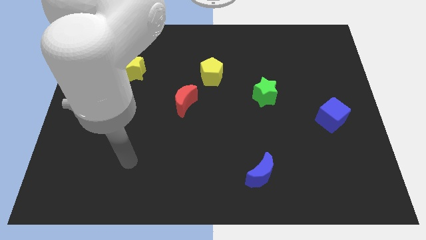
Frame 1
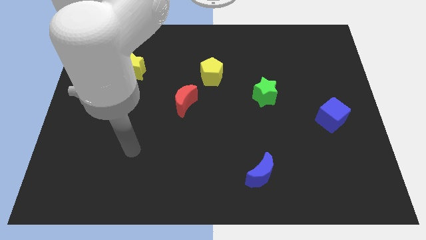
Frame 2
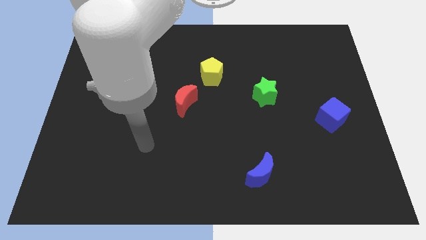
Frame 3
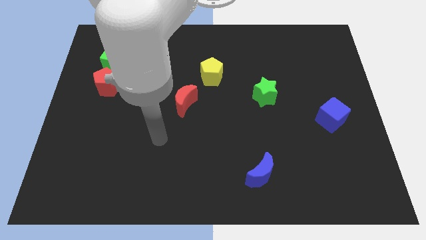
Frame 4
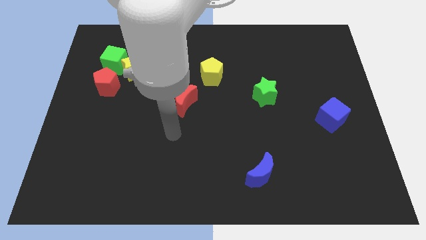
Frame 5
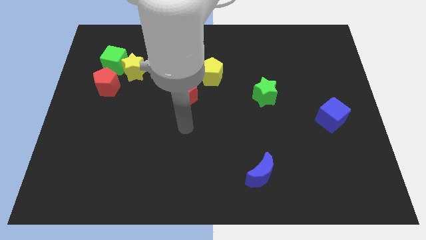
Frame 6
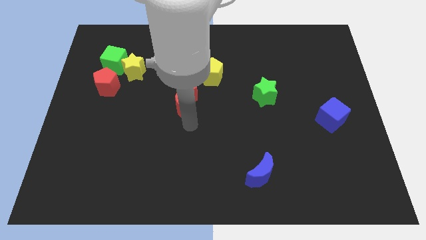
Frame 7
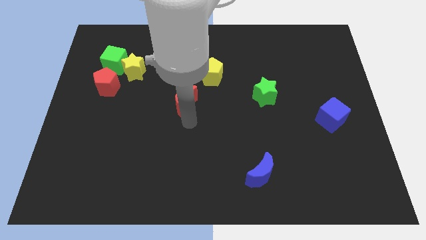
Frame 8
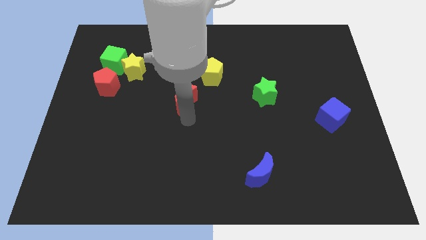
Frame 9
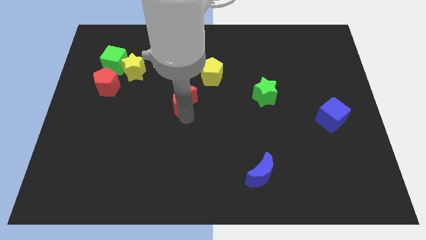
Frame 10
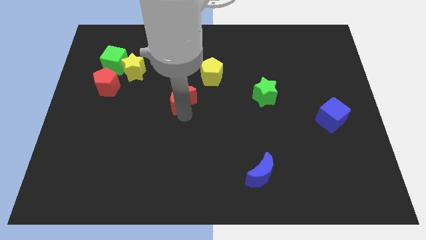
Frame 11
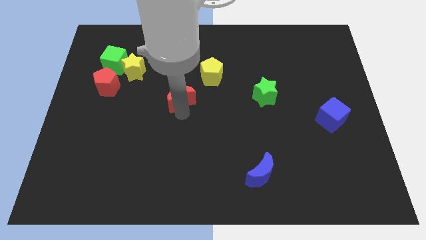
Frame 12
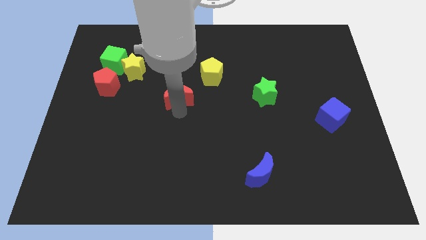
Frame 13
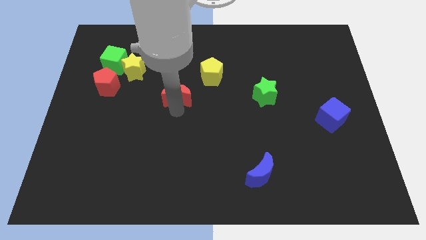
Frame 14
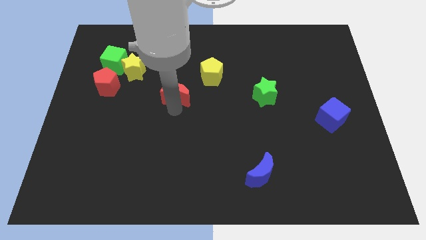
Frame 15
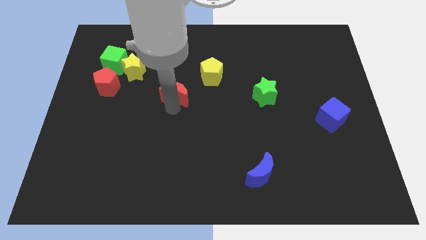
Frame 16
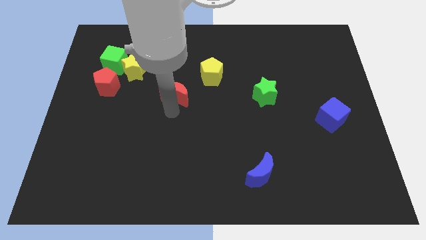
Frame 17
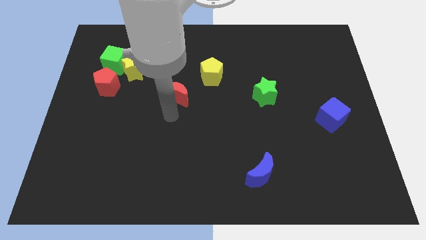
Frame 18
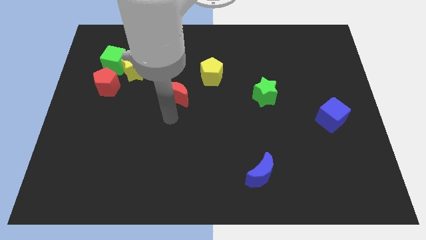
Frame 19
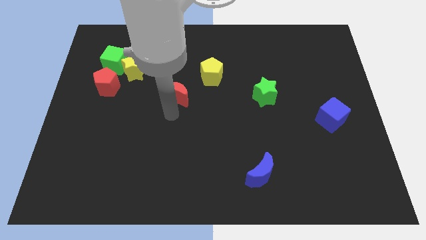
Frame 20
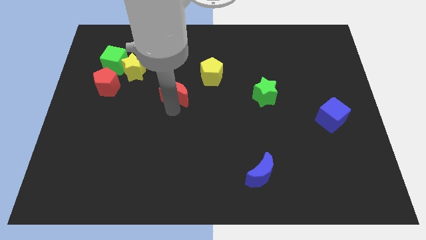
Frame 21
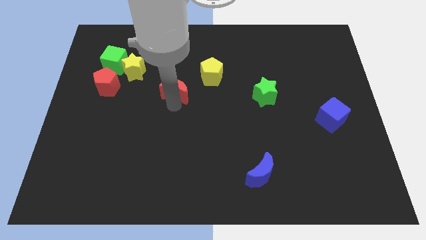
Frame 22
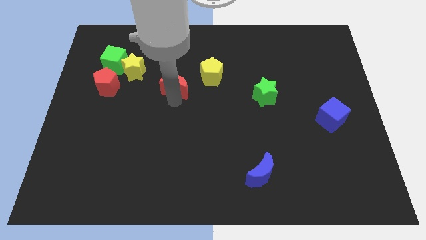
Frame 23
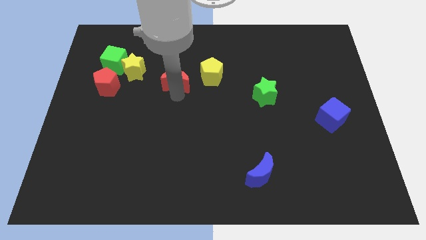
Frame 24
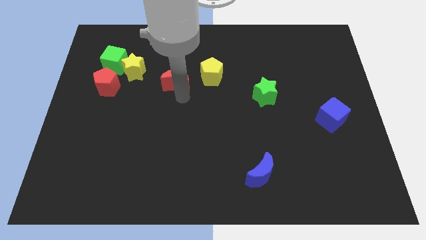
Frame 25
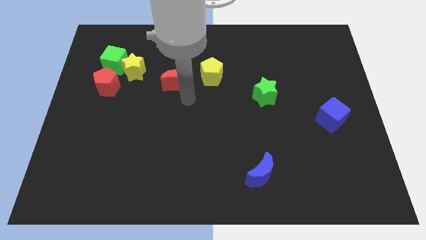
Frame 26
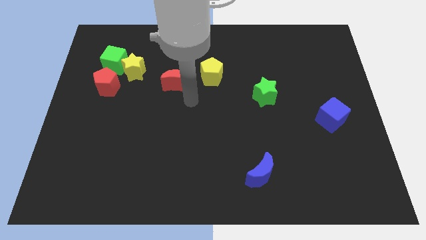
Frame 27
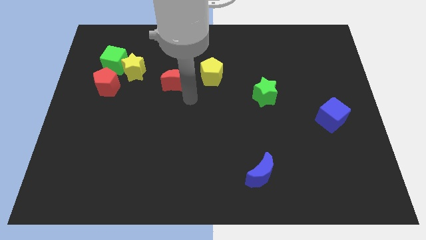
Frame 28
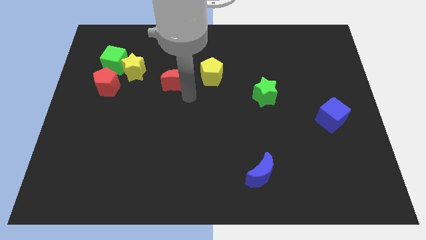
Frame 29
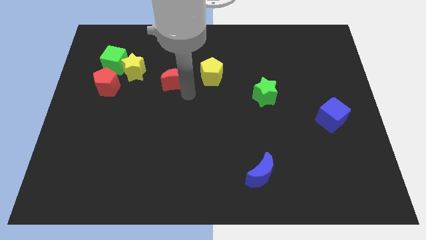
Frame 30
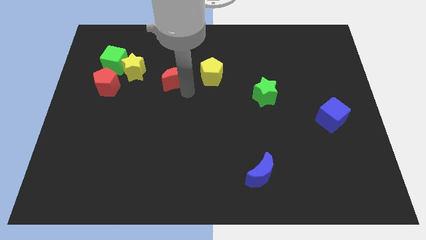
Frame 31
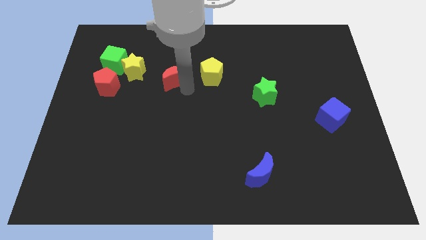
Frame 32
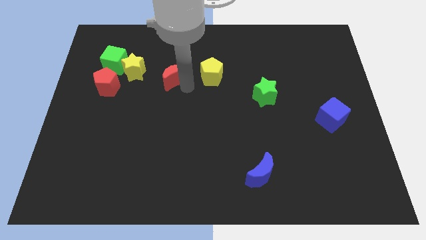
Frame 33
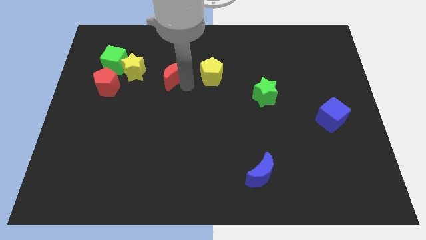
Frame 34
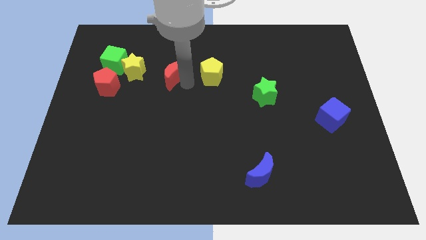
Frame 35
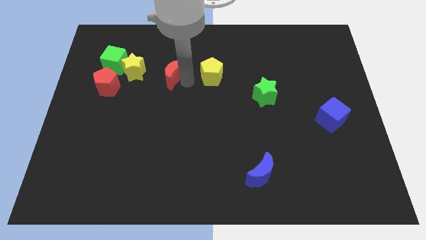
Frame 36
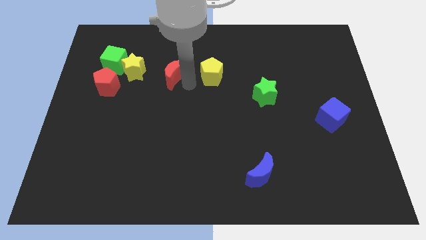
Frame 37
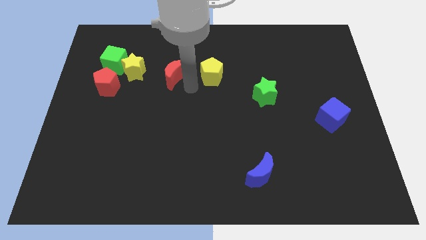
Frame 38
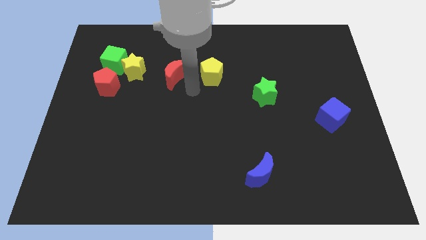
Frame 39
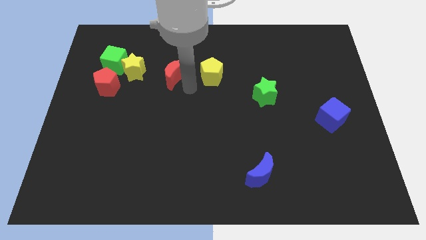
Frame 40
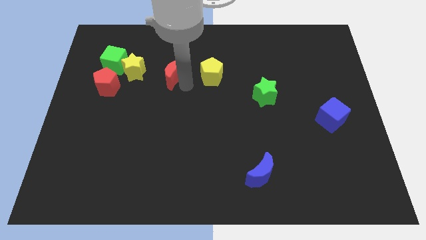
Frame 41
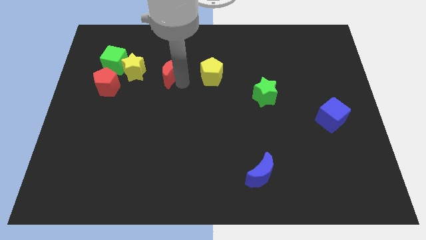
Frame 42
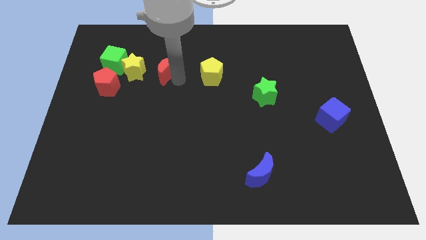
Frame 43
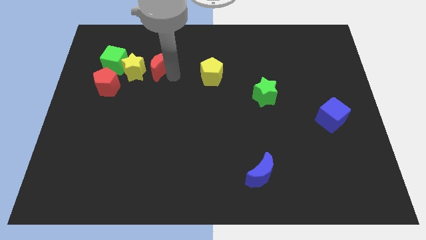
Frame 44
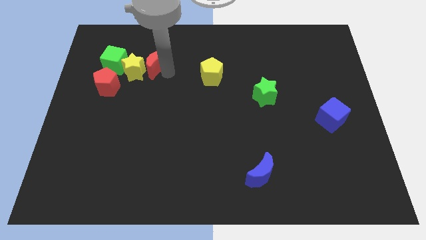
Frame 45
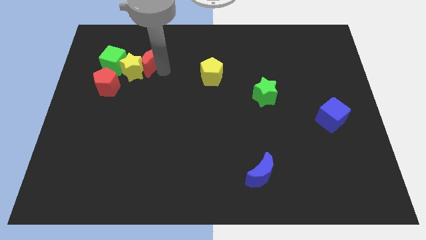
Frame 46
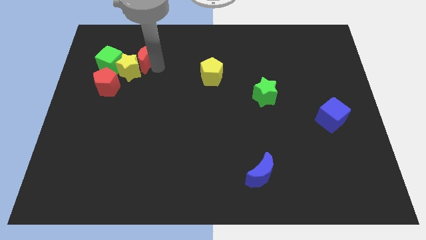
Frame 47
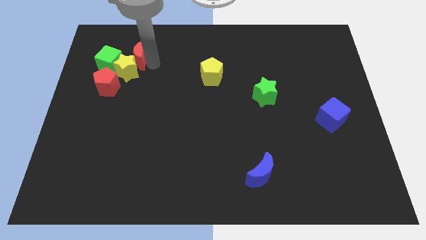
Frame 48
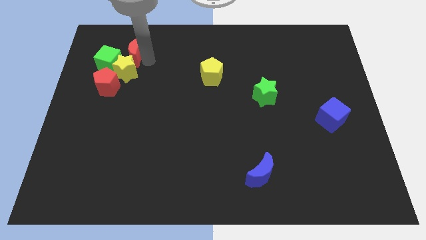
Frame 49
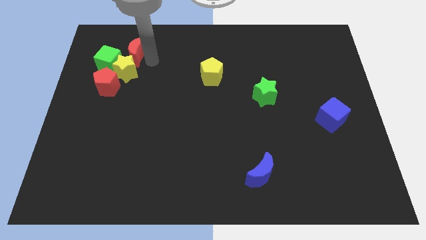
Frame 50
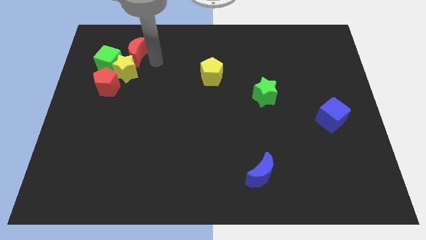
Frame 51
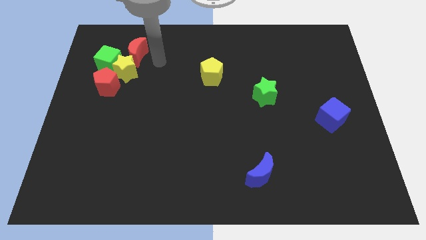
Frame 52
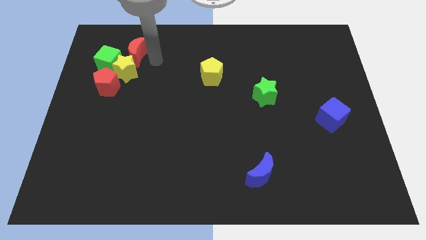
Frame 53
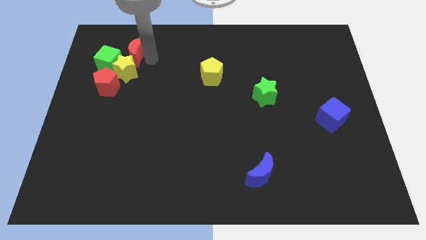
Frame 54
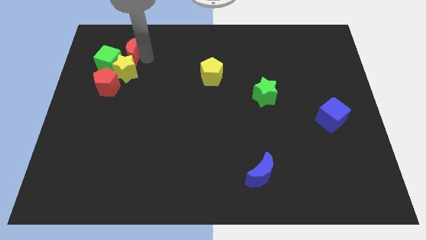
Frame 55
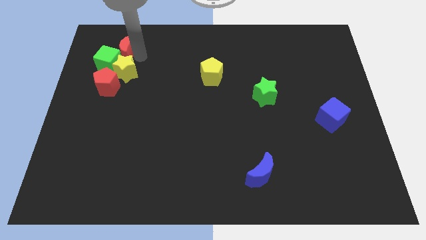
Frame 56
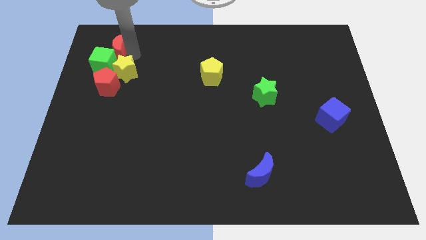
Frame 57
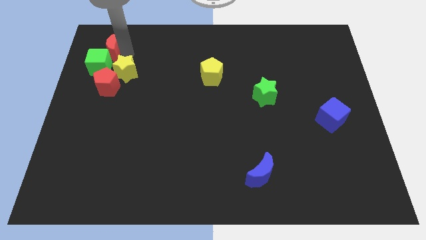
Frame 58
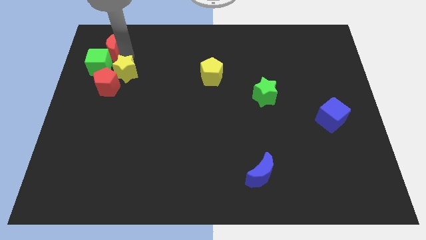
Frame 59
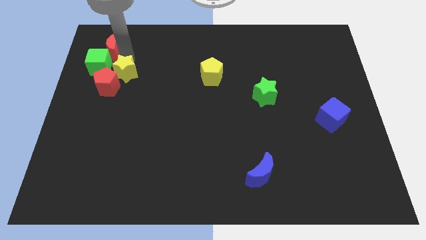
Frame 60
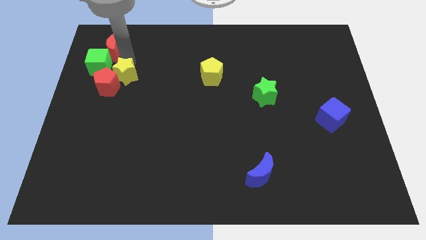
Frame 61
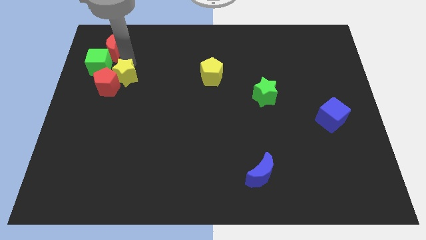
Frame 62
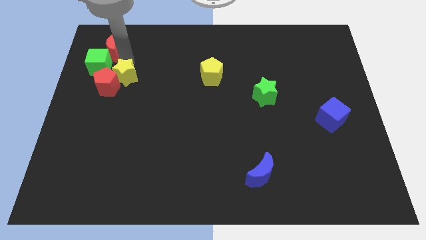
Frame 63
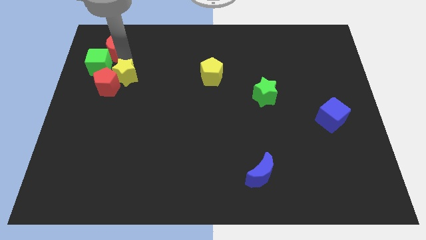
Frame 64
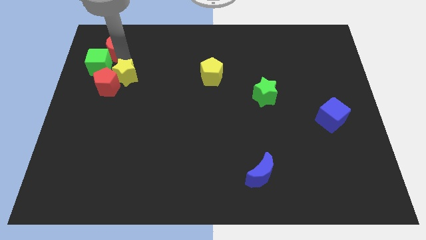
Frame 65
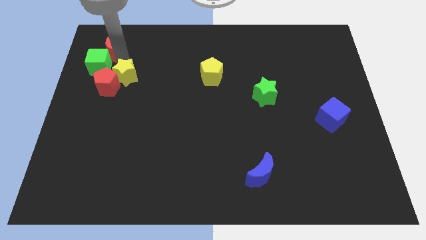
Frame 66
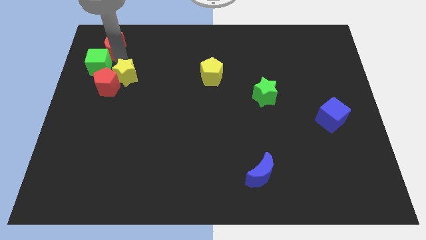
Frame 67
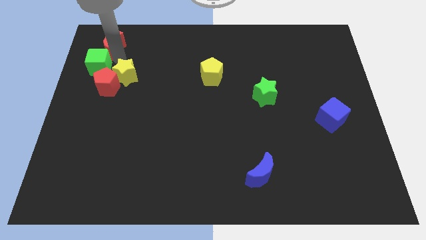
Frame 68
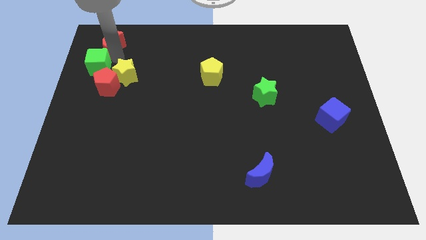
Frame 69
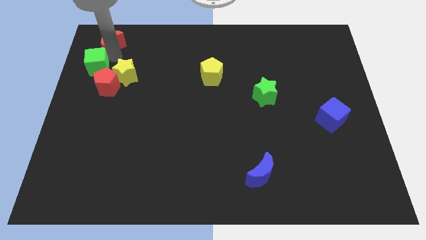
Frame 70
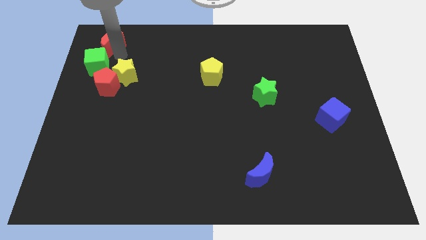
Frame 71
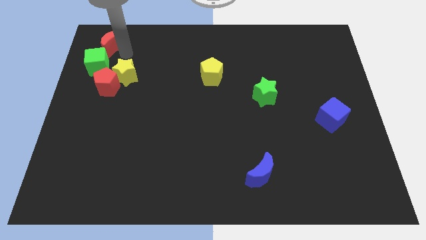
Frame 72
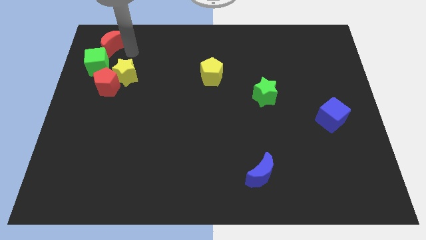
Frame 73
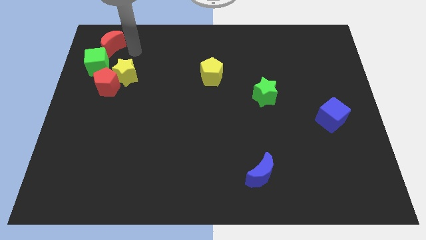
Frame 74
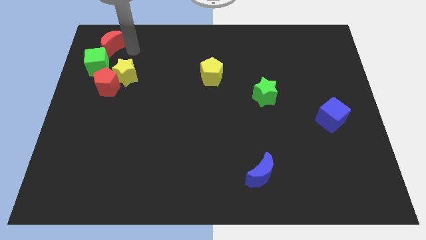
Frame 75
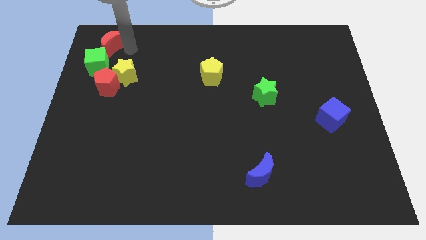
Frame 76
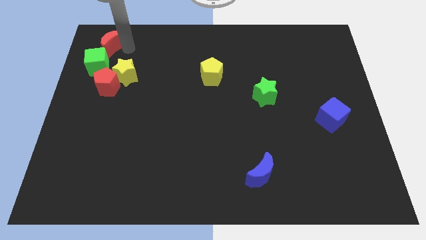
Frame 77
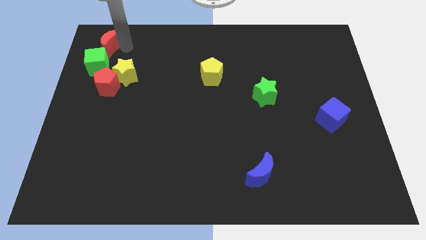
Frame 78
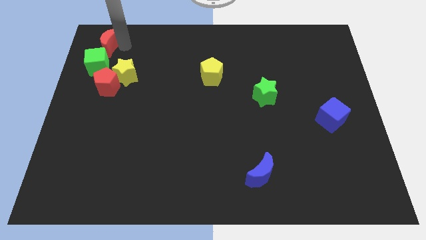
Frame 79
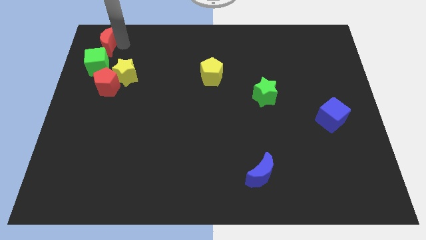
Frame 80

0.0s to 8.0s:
put the red moon to the top left of the board
